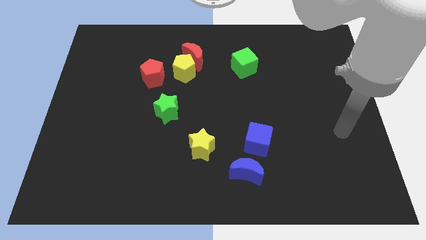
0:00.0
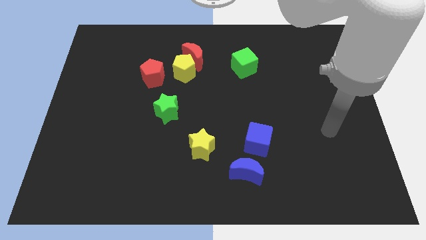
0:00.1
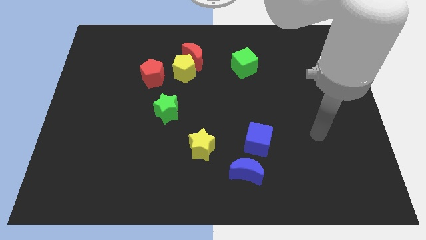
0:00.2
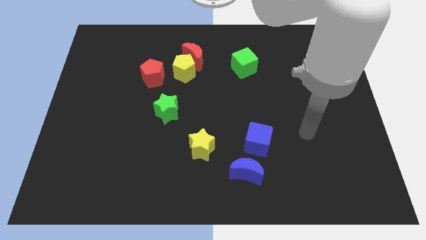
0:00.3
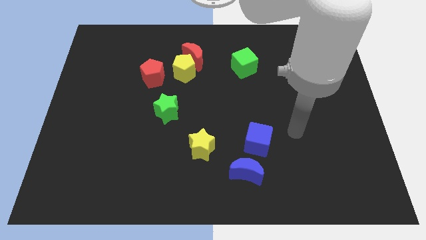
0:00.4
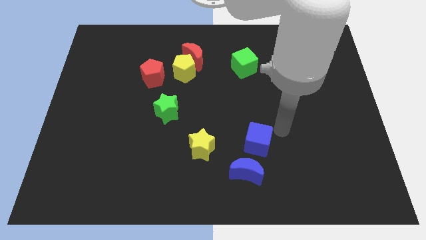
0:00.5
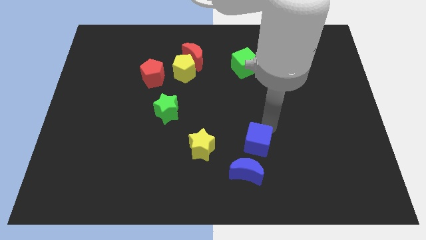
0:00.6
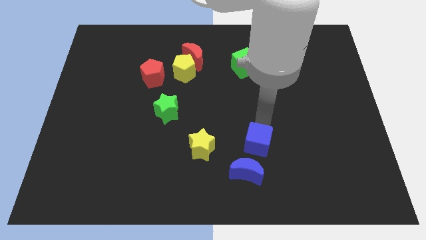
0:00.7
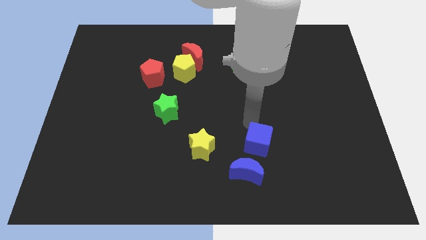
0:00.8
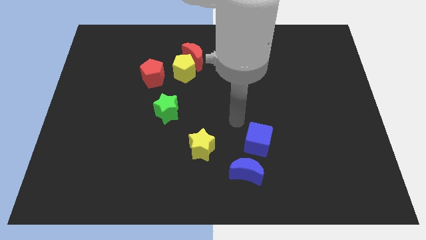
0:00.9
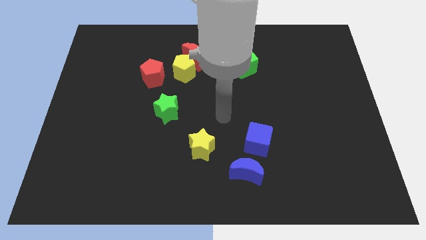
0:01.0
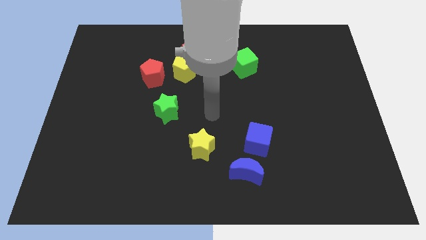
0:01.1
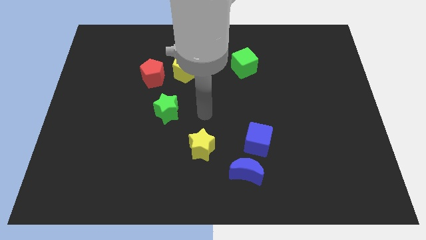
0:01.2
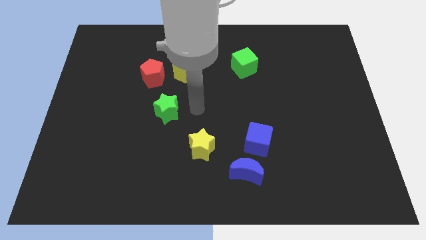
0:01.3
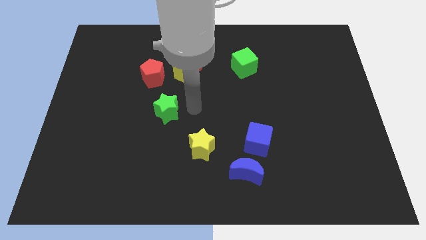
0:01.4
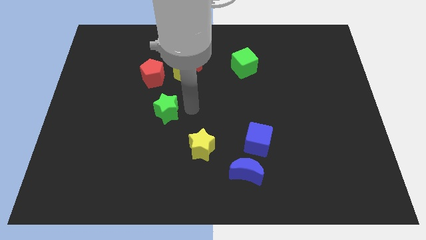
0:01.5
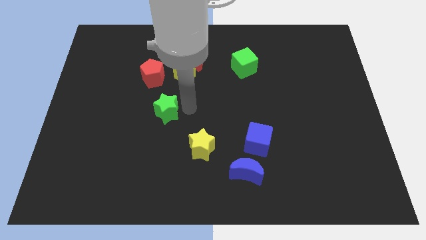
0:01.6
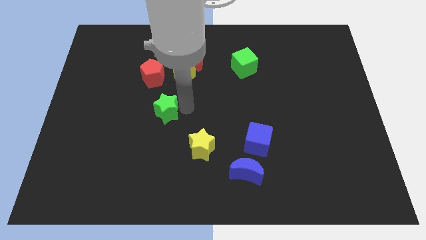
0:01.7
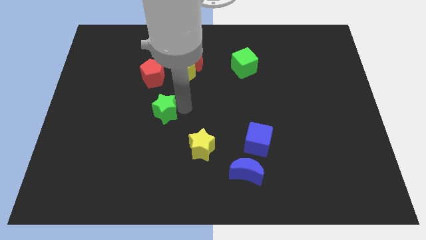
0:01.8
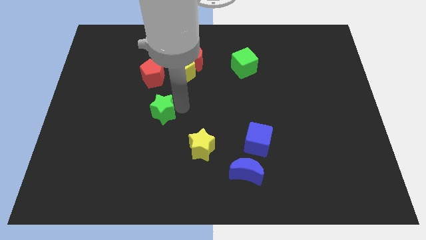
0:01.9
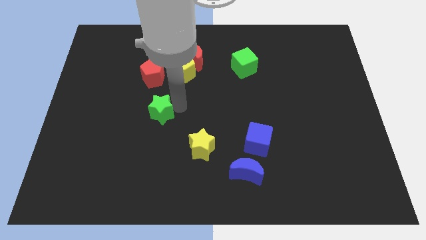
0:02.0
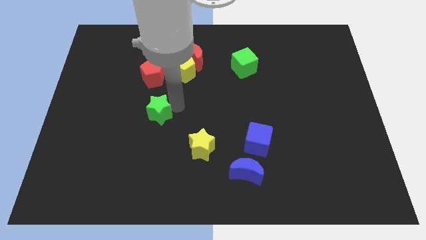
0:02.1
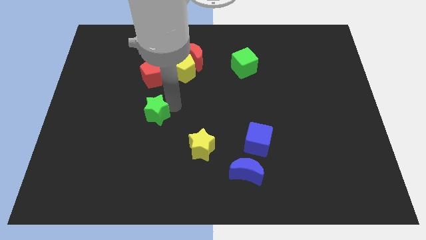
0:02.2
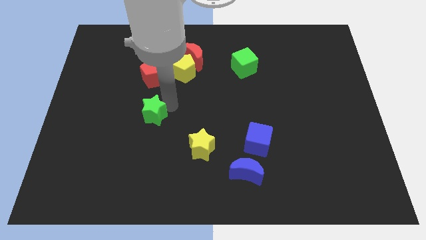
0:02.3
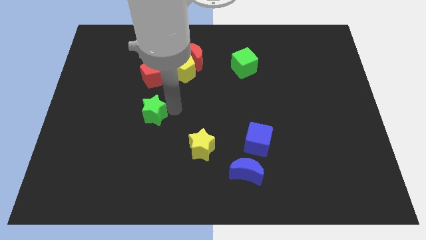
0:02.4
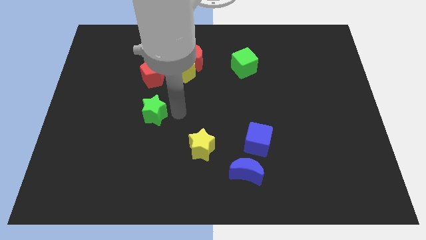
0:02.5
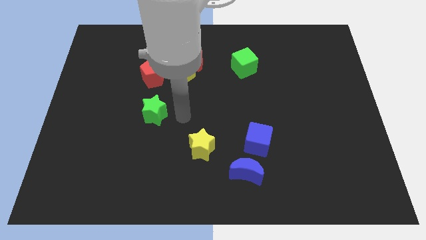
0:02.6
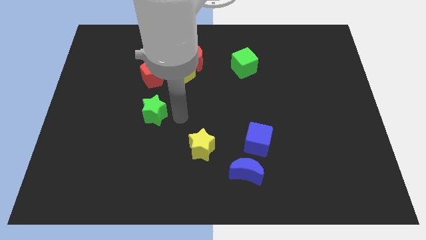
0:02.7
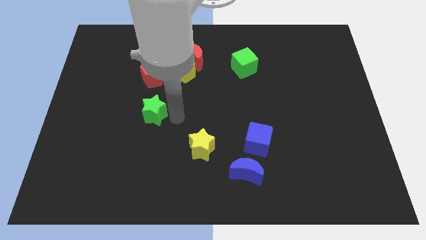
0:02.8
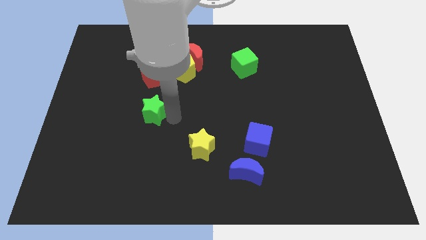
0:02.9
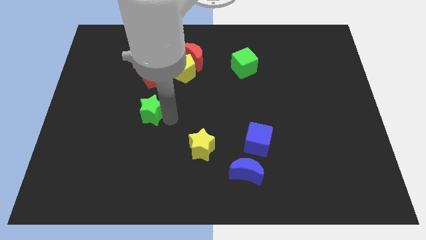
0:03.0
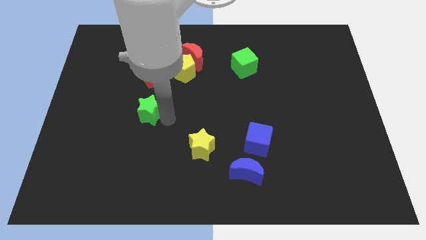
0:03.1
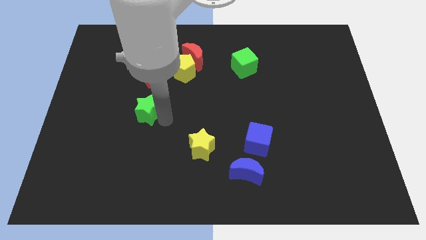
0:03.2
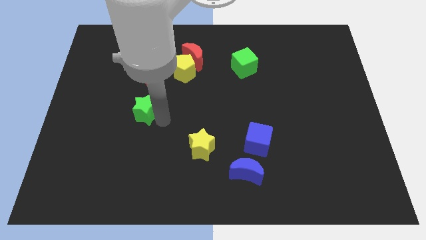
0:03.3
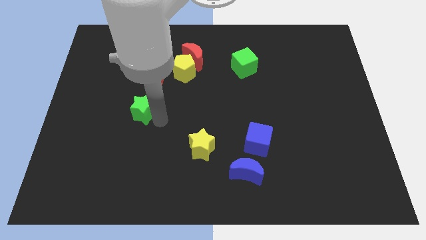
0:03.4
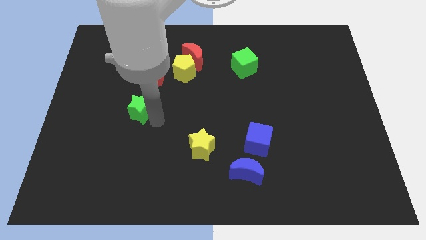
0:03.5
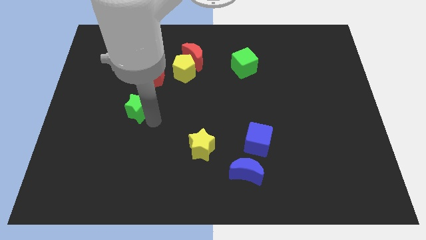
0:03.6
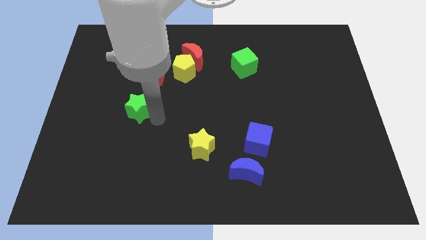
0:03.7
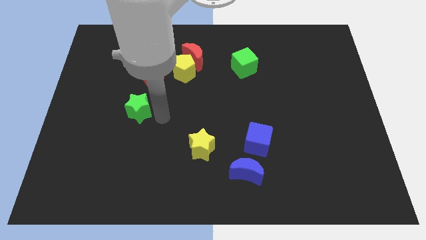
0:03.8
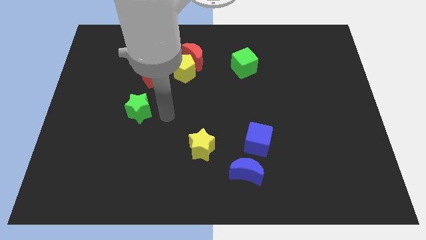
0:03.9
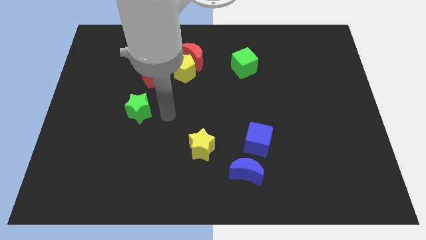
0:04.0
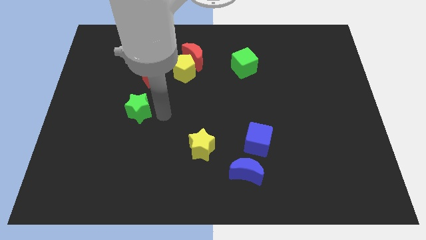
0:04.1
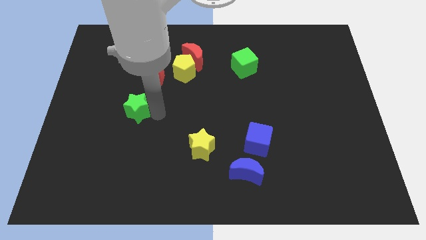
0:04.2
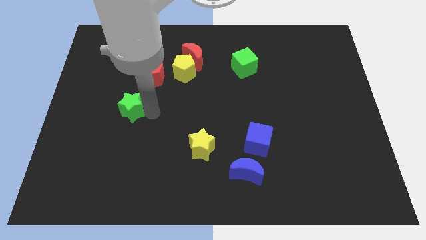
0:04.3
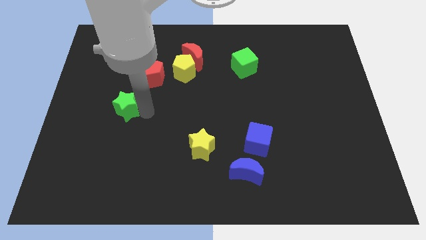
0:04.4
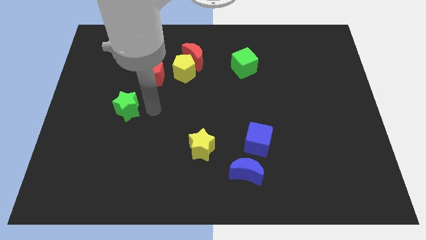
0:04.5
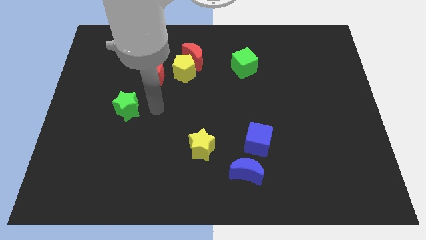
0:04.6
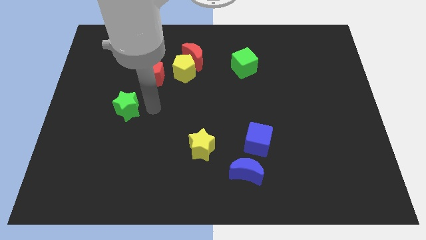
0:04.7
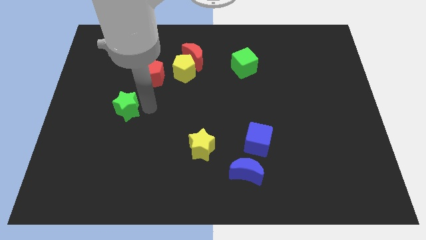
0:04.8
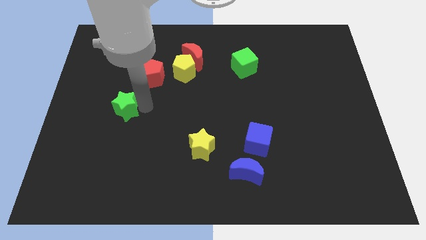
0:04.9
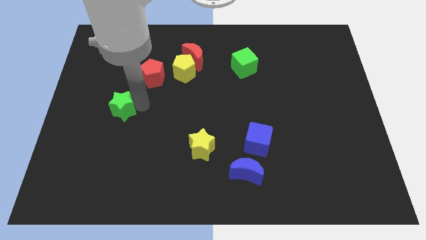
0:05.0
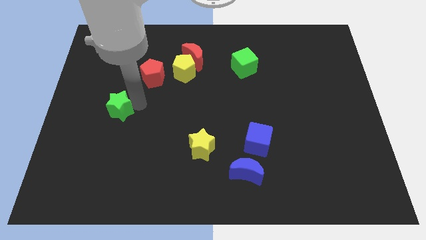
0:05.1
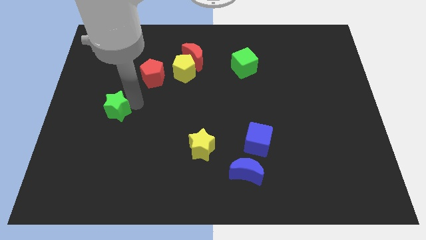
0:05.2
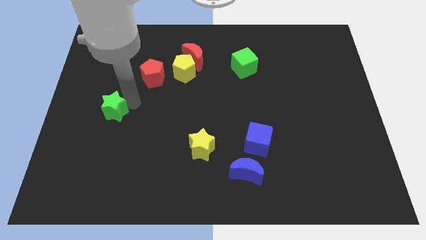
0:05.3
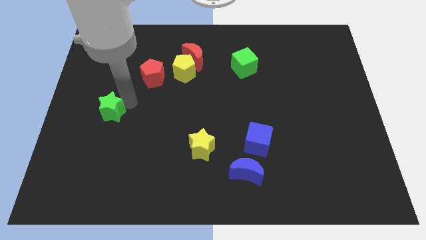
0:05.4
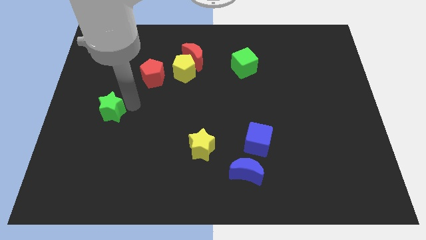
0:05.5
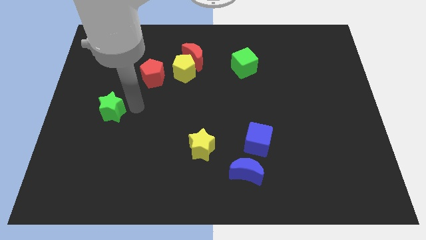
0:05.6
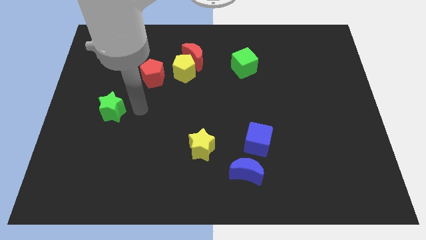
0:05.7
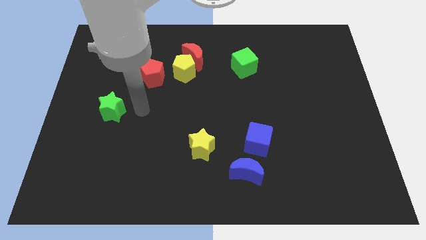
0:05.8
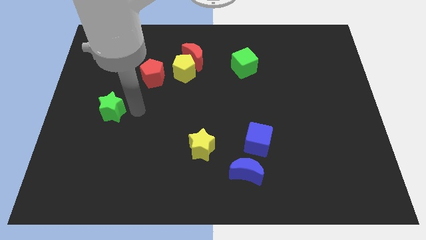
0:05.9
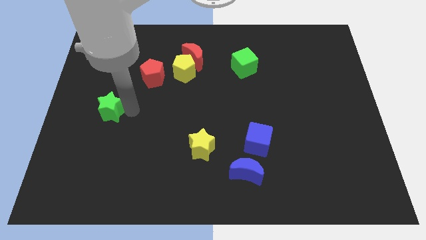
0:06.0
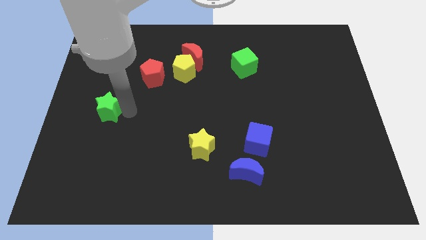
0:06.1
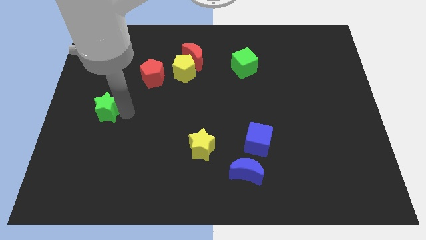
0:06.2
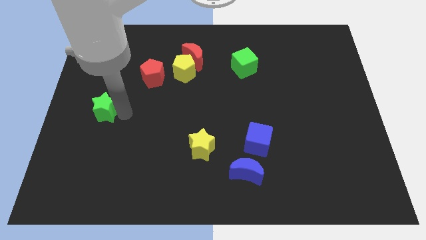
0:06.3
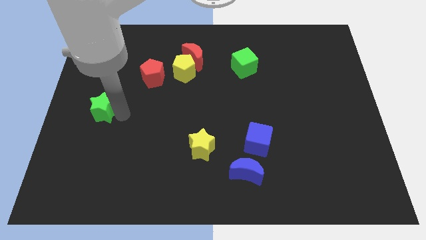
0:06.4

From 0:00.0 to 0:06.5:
put the green star to the left side of the board
